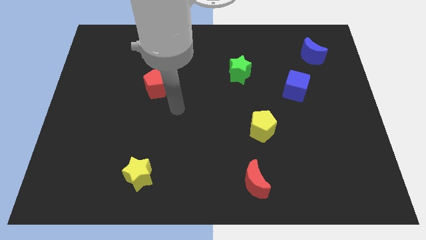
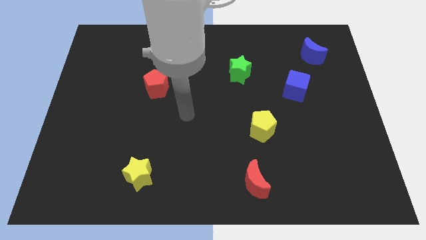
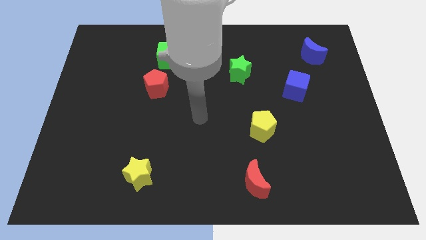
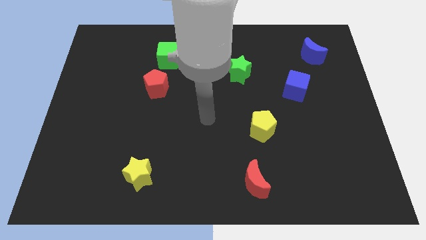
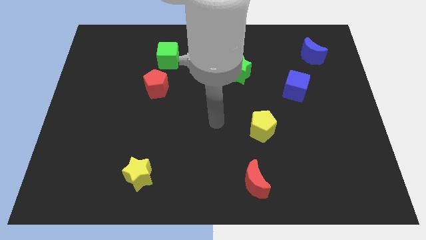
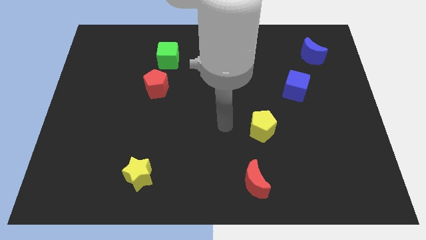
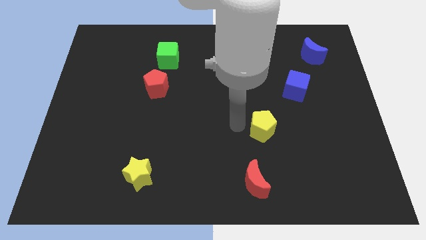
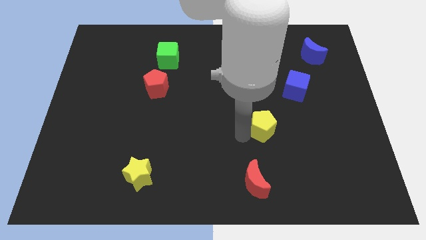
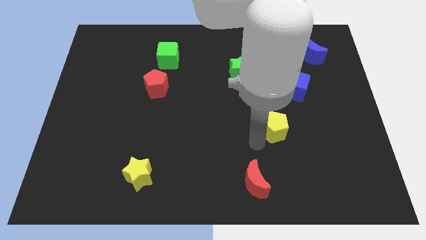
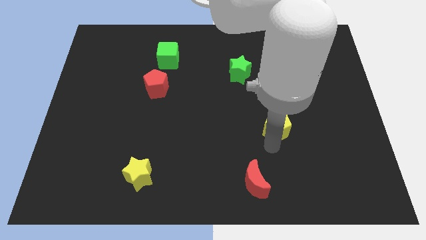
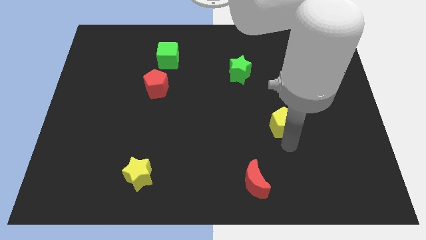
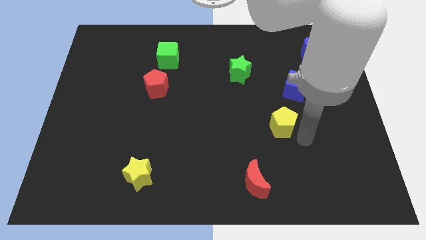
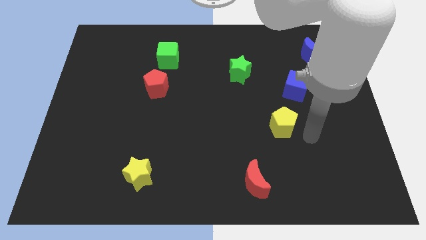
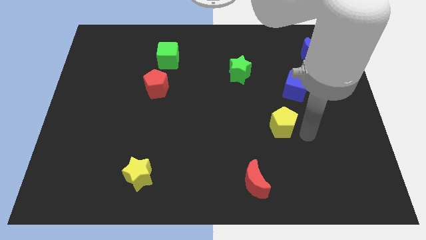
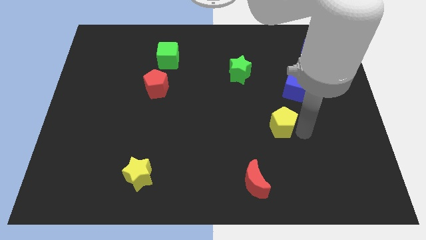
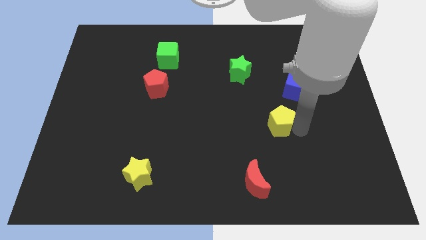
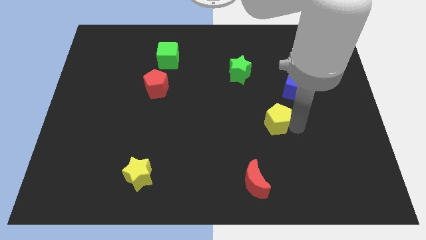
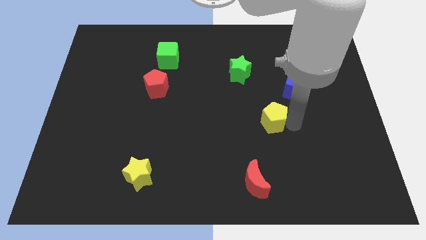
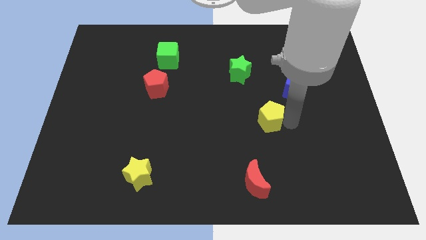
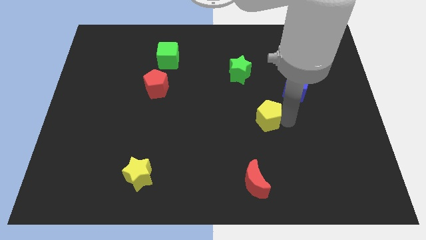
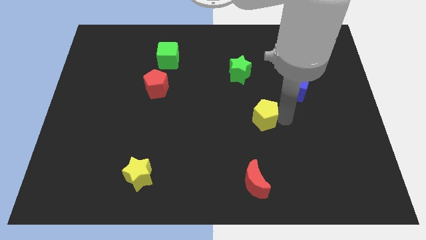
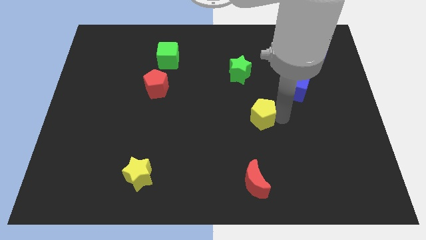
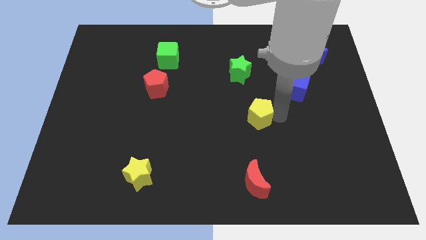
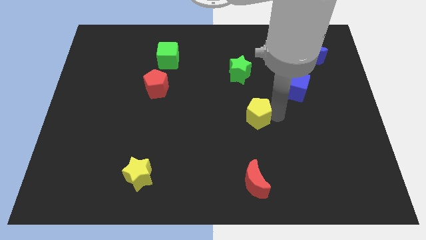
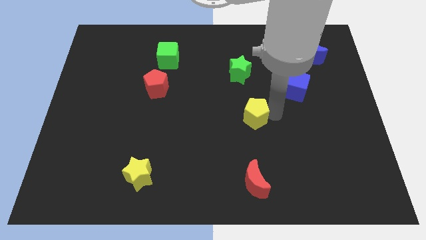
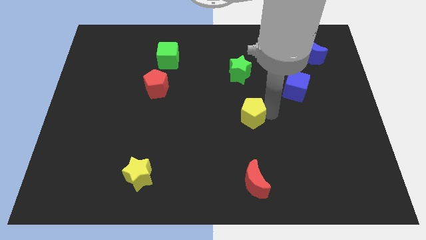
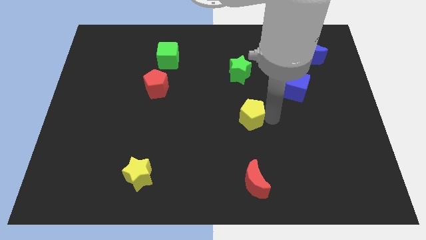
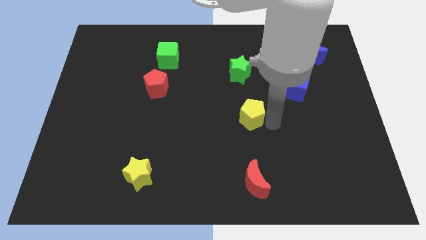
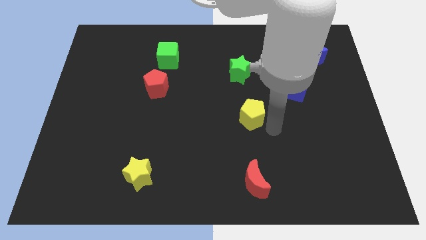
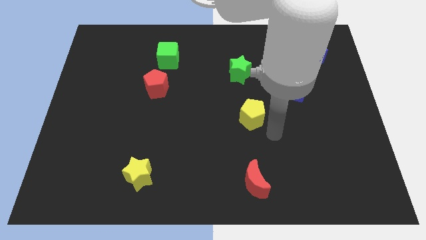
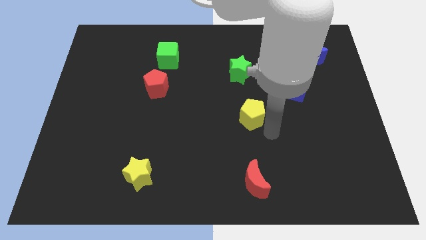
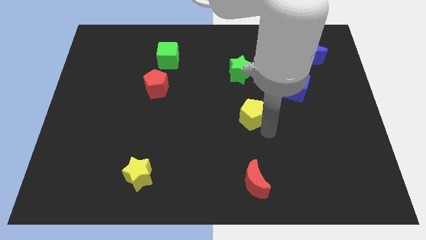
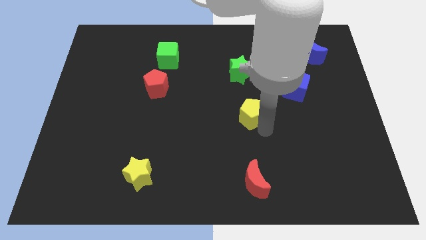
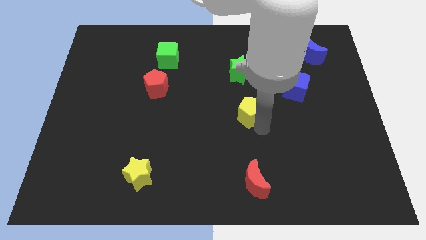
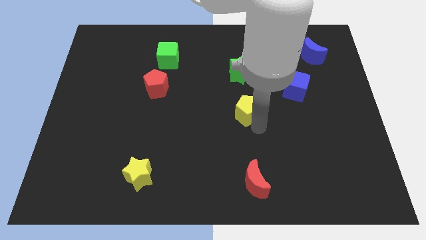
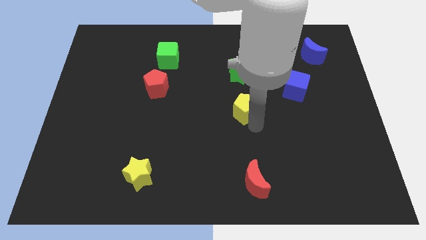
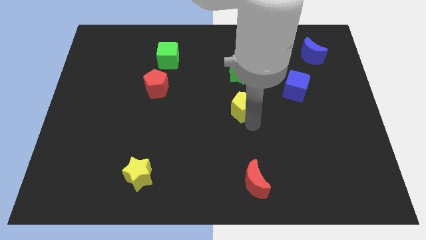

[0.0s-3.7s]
move the yellow pentagon upwards and then to the left a bit

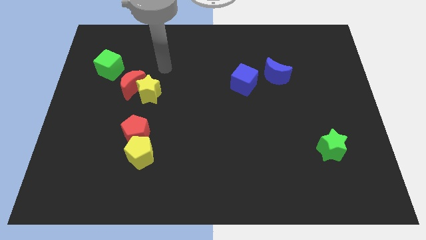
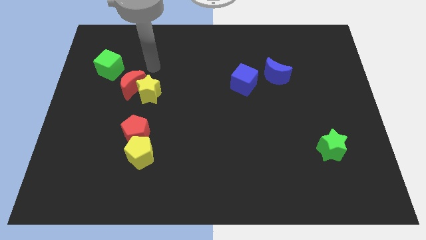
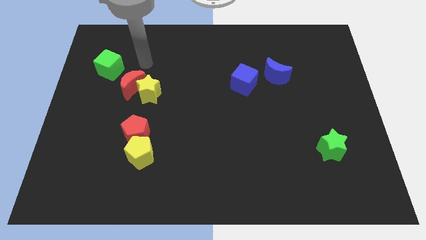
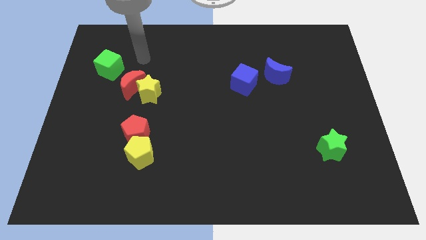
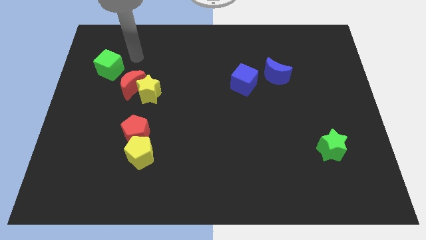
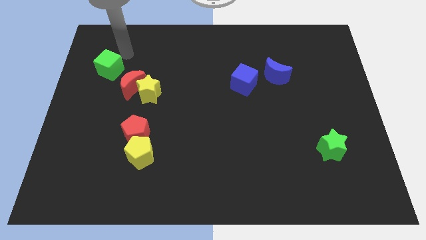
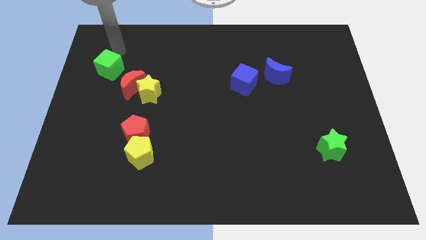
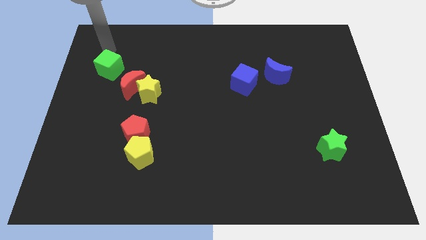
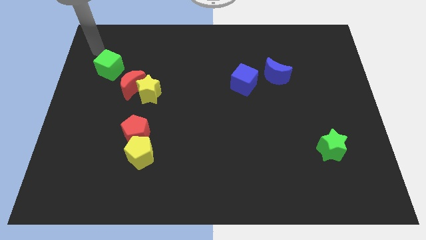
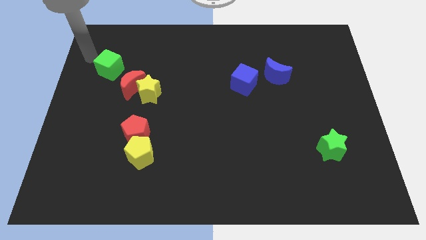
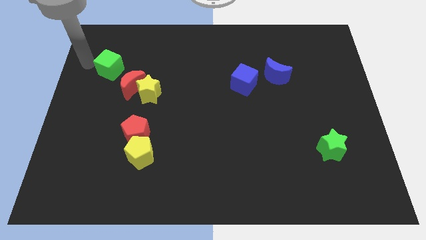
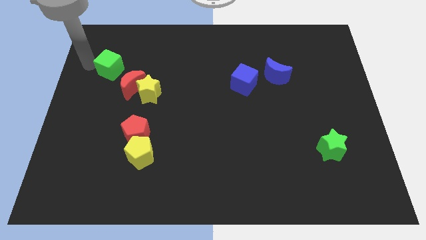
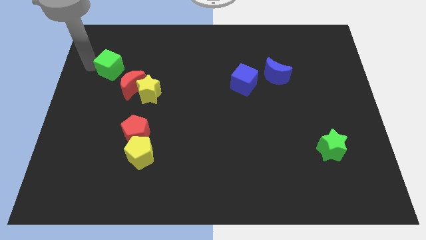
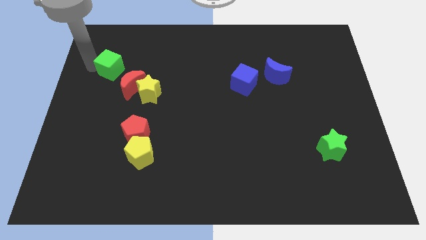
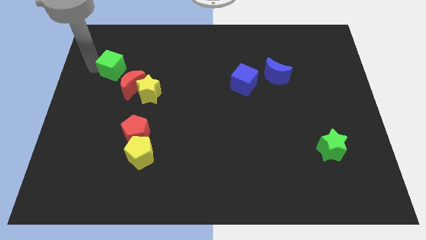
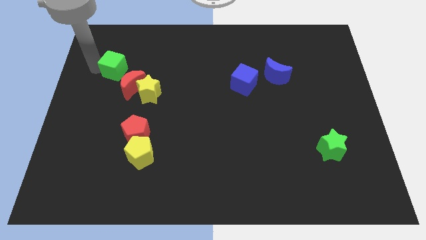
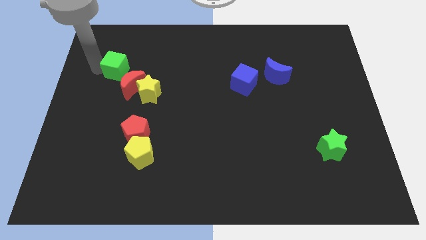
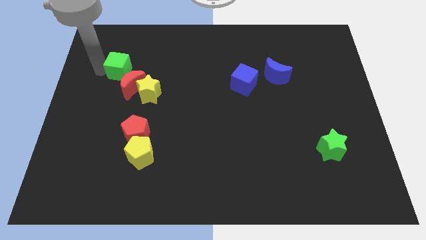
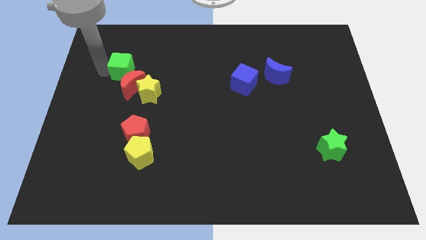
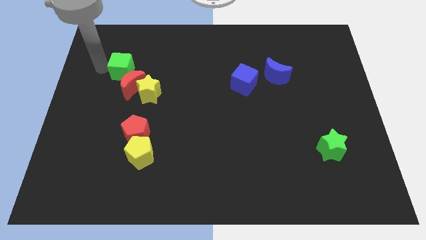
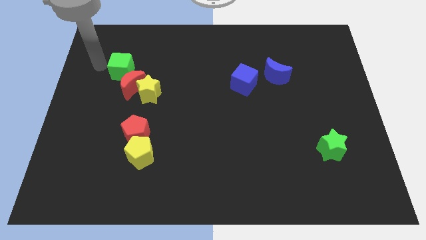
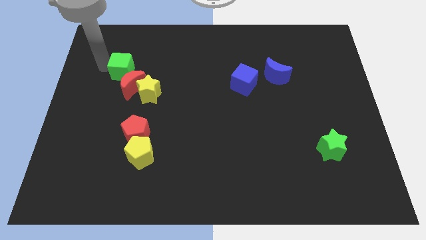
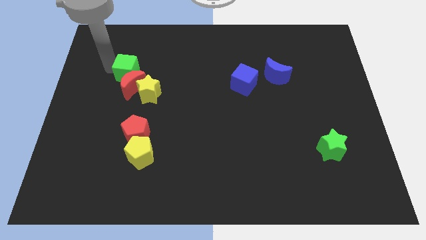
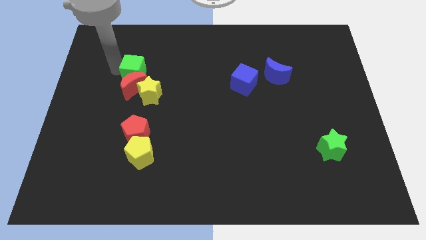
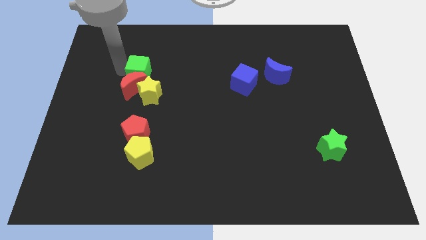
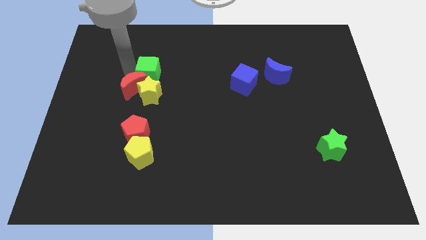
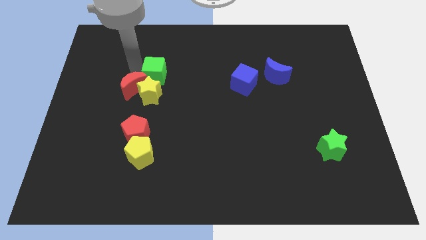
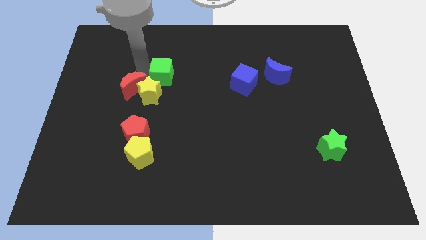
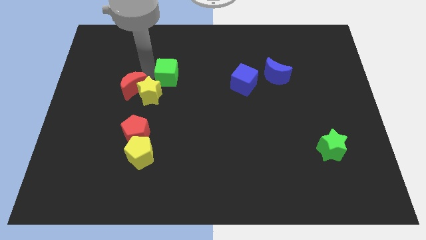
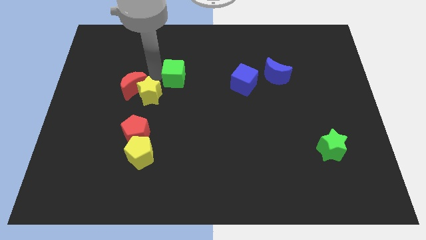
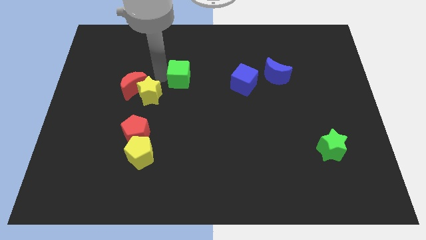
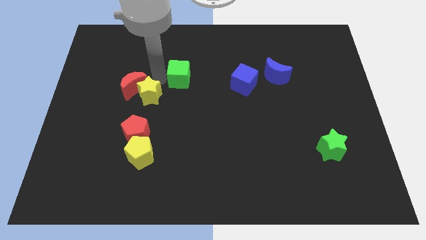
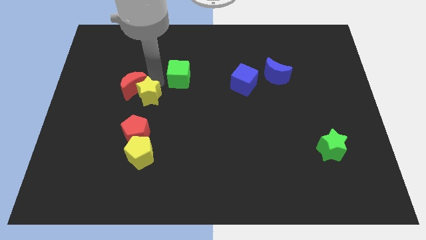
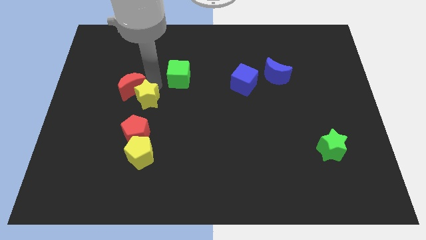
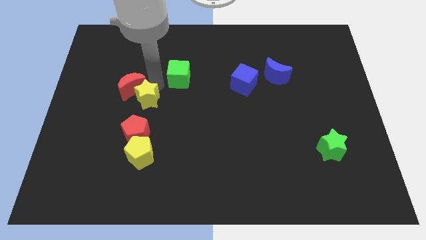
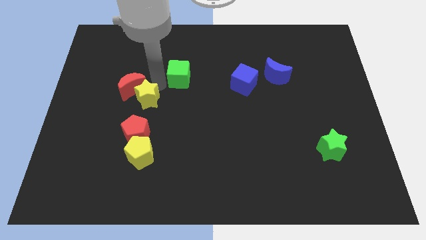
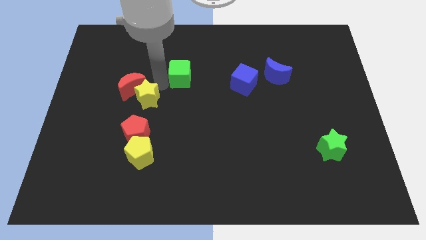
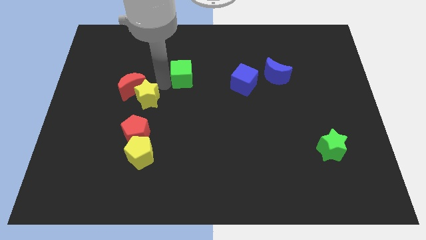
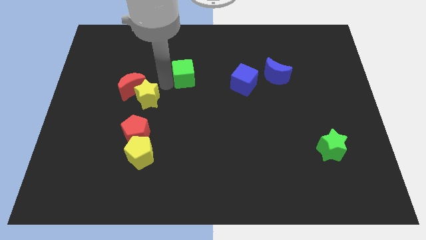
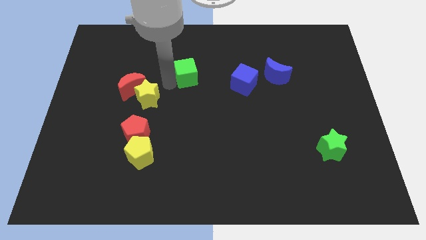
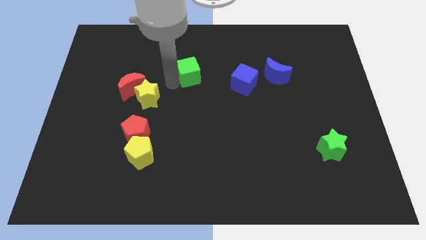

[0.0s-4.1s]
push the green cube to the right
